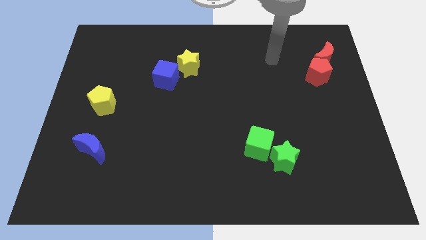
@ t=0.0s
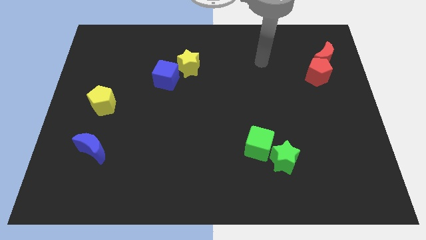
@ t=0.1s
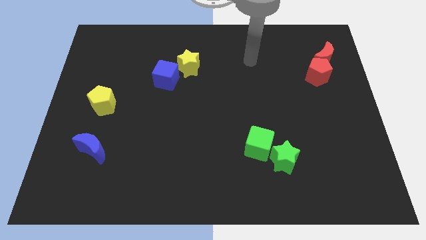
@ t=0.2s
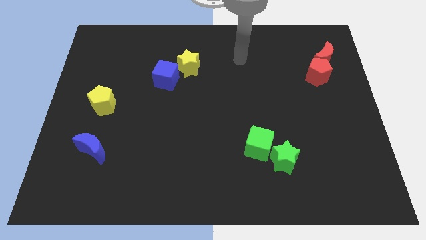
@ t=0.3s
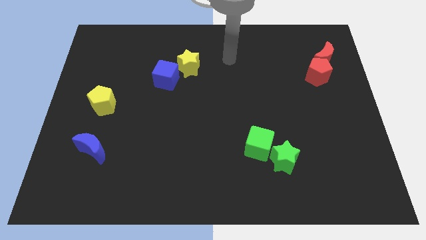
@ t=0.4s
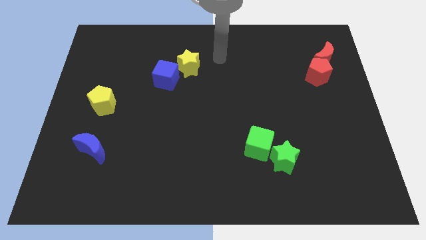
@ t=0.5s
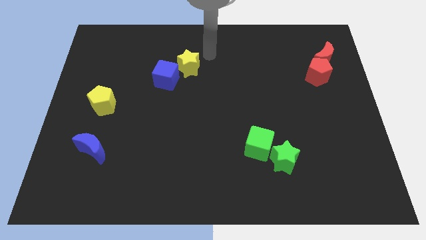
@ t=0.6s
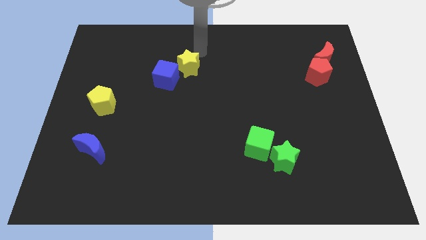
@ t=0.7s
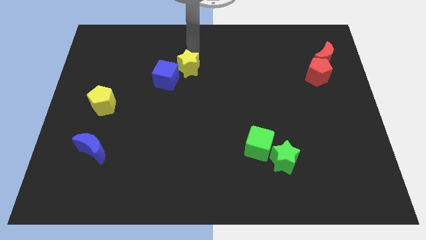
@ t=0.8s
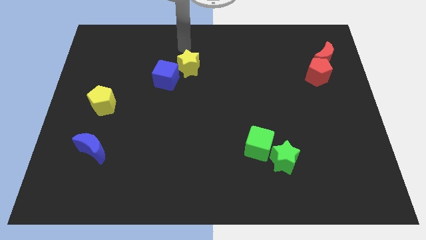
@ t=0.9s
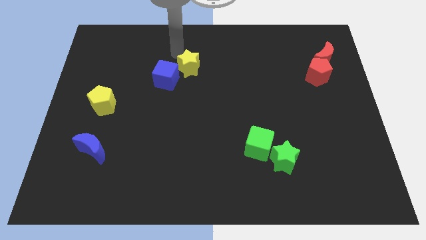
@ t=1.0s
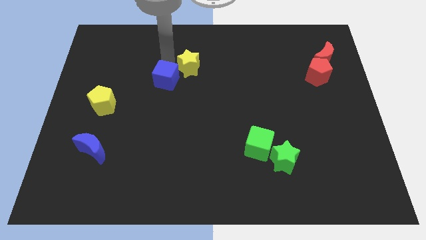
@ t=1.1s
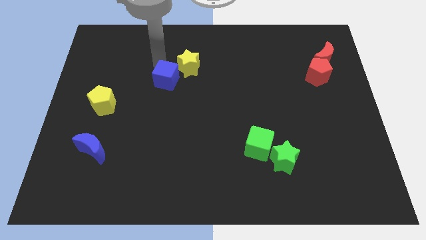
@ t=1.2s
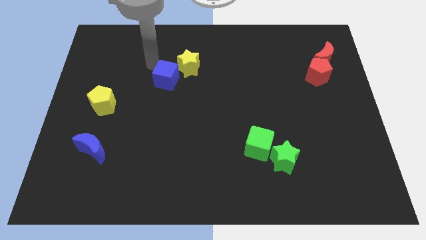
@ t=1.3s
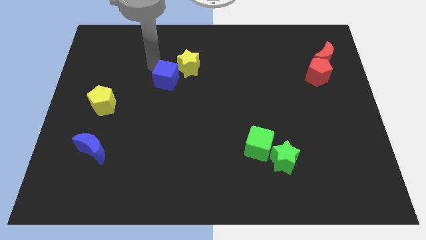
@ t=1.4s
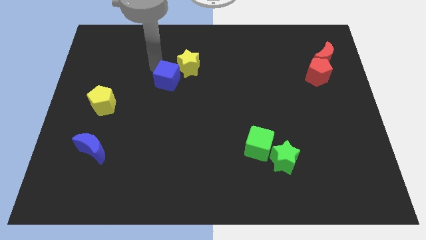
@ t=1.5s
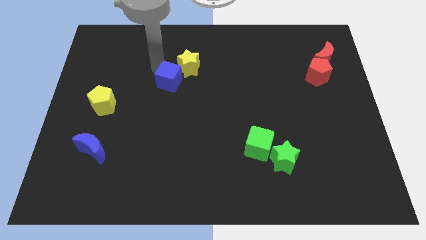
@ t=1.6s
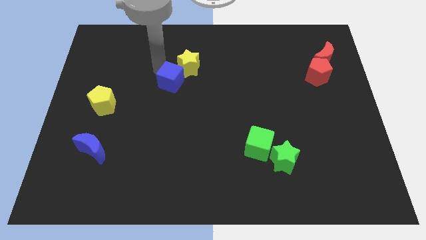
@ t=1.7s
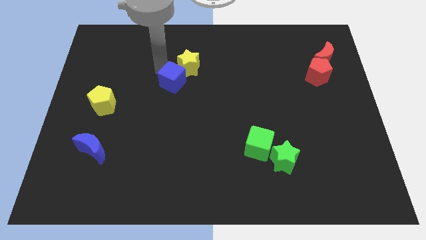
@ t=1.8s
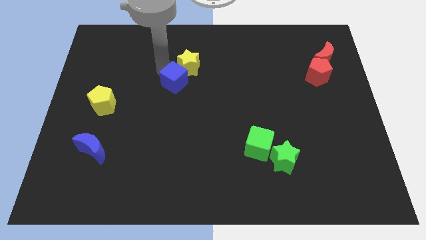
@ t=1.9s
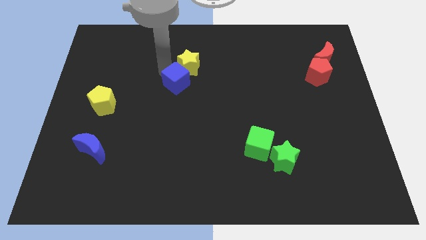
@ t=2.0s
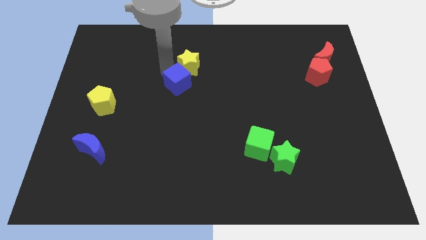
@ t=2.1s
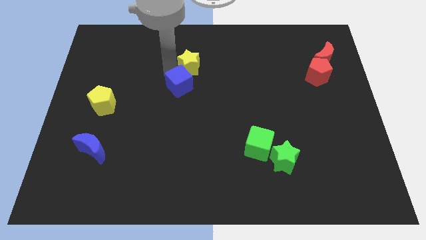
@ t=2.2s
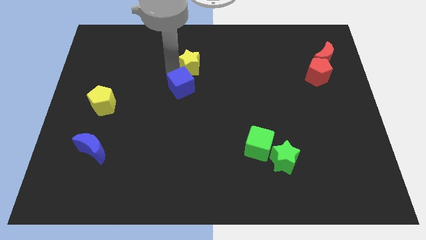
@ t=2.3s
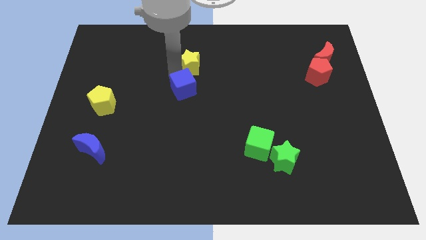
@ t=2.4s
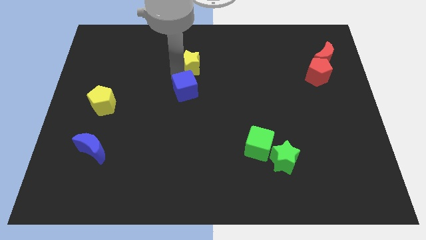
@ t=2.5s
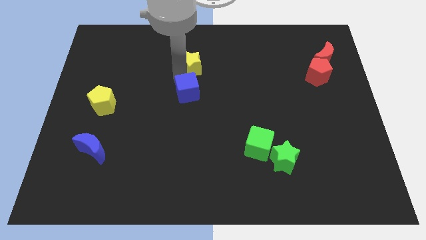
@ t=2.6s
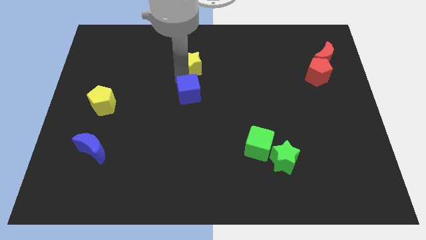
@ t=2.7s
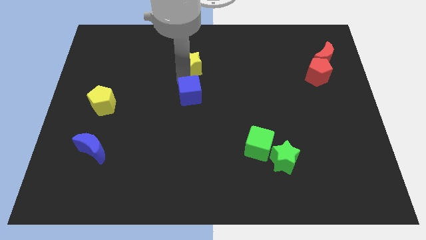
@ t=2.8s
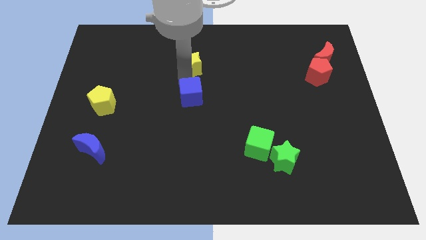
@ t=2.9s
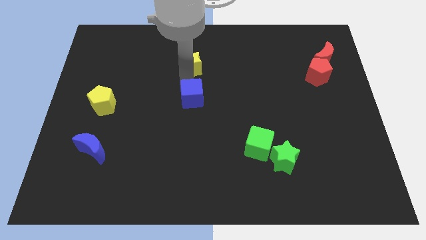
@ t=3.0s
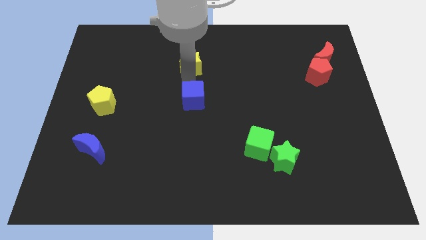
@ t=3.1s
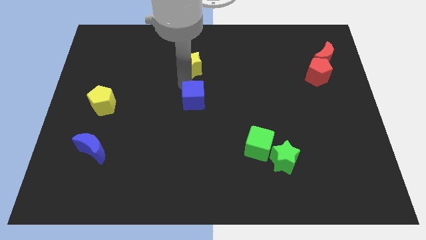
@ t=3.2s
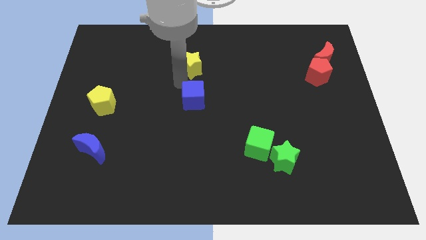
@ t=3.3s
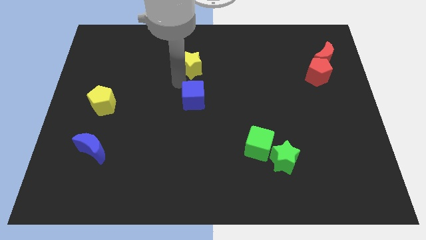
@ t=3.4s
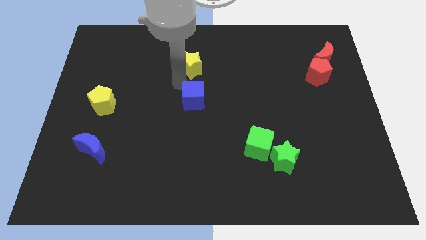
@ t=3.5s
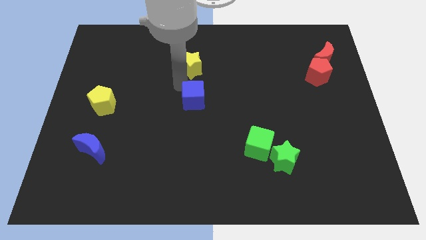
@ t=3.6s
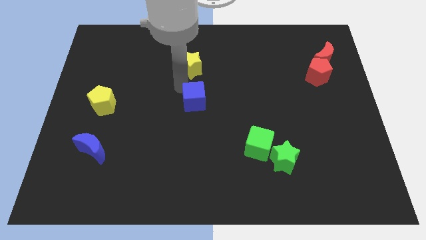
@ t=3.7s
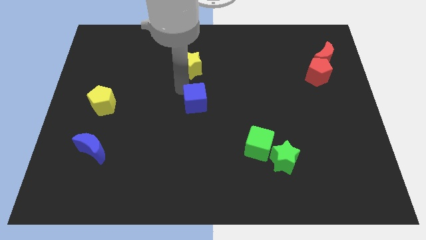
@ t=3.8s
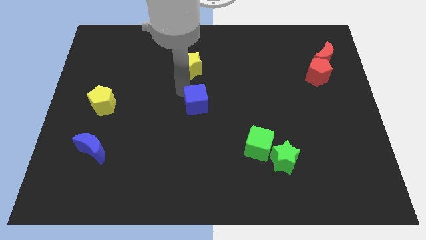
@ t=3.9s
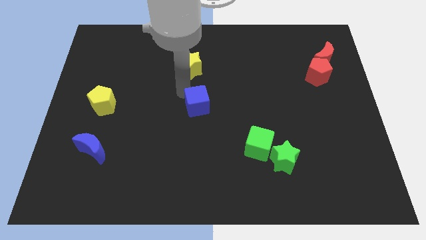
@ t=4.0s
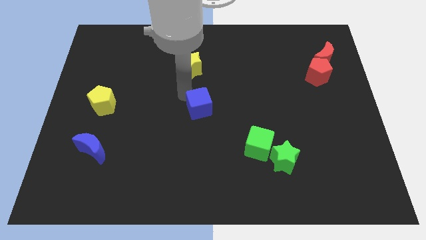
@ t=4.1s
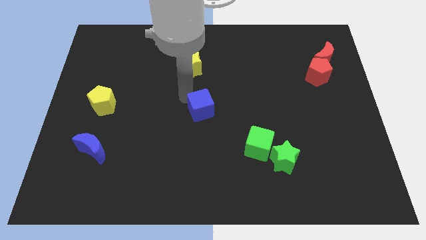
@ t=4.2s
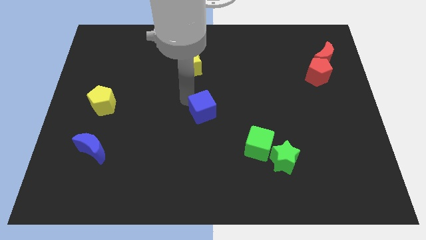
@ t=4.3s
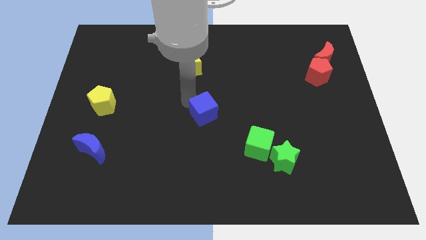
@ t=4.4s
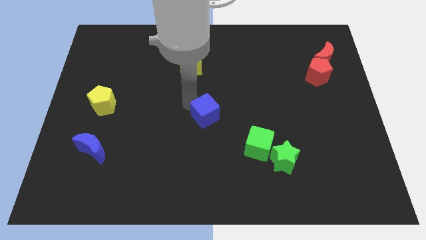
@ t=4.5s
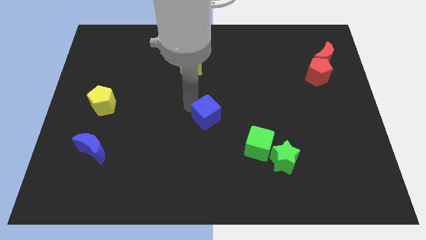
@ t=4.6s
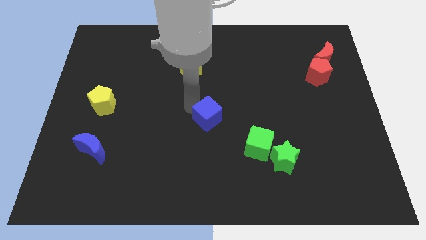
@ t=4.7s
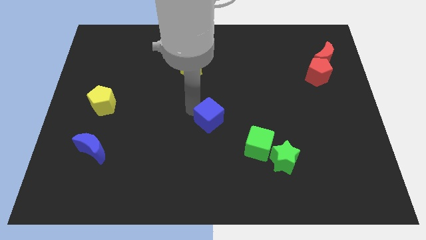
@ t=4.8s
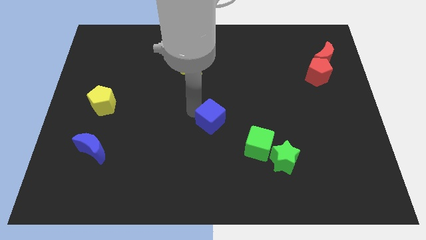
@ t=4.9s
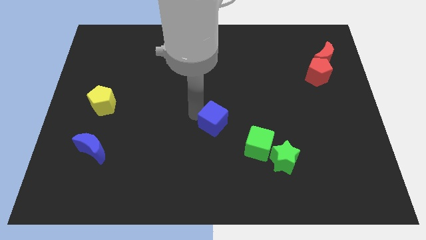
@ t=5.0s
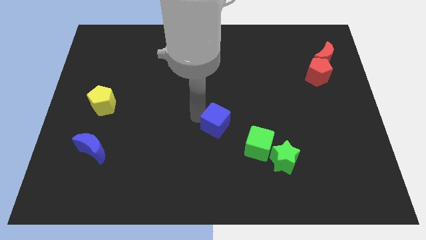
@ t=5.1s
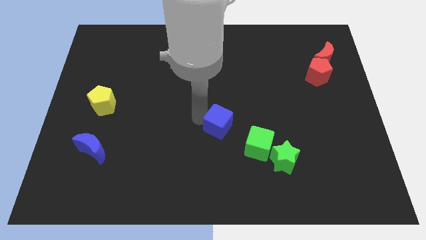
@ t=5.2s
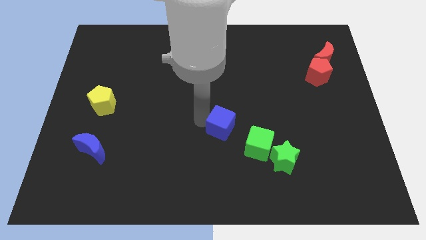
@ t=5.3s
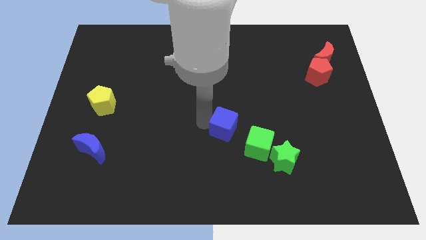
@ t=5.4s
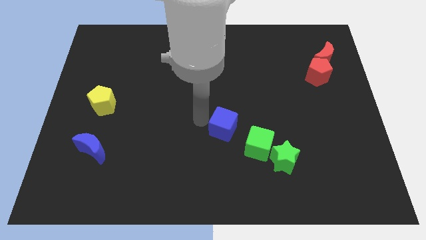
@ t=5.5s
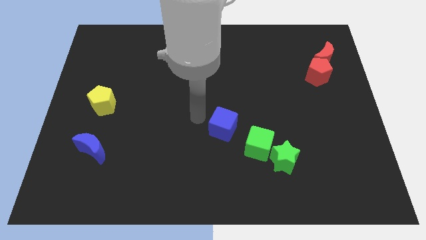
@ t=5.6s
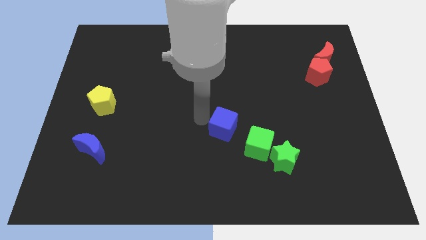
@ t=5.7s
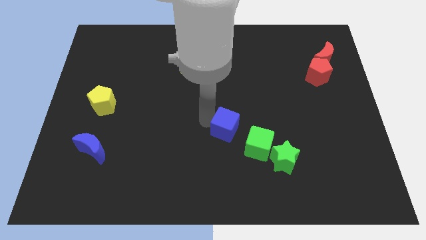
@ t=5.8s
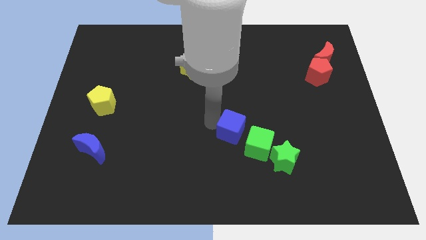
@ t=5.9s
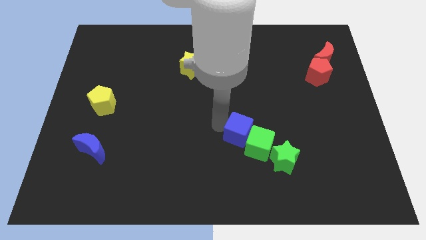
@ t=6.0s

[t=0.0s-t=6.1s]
put the blue cube towards the green cube

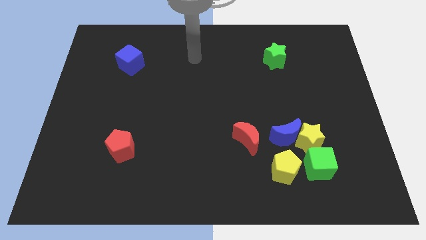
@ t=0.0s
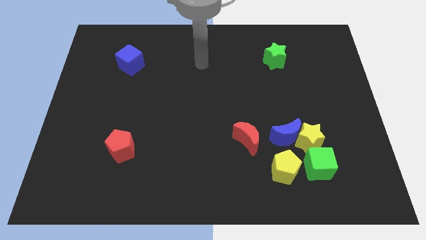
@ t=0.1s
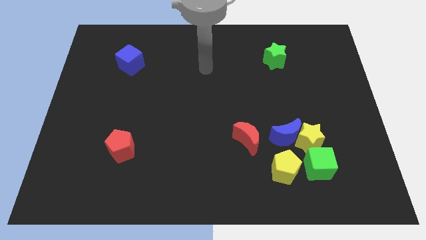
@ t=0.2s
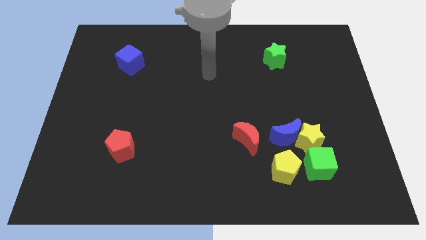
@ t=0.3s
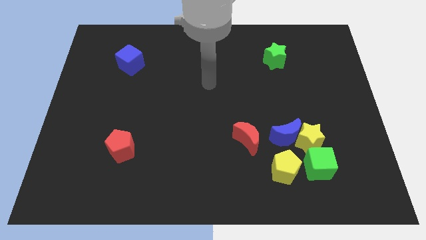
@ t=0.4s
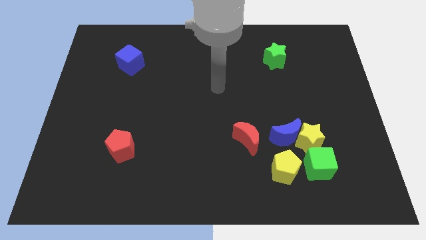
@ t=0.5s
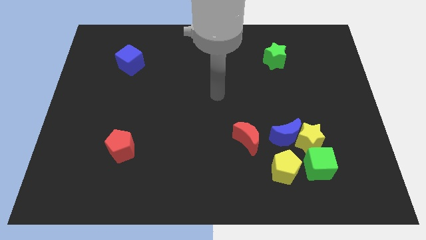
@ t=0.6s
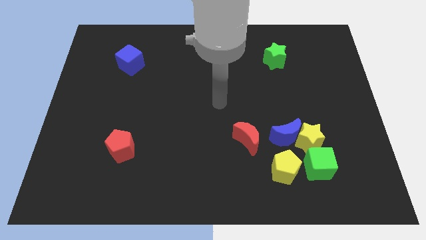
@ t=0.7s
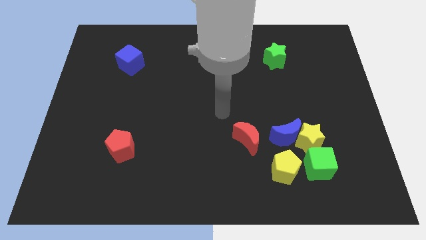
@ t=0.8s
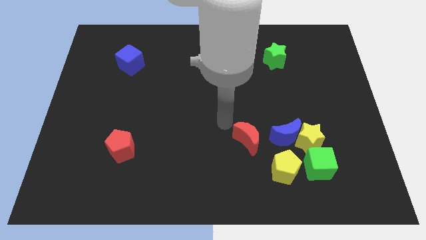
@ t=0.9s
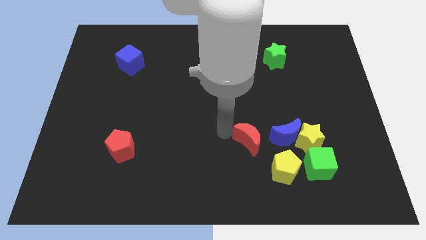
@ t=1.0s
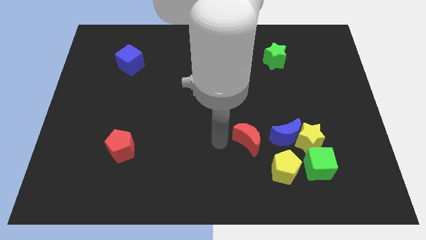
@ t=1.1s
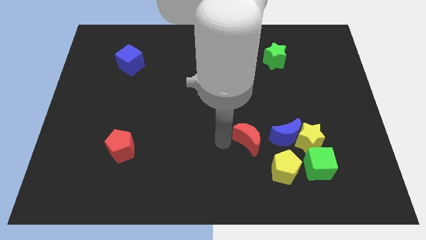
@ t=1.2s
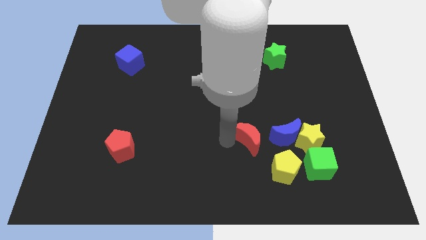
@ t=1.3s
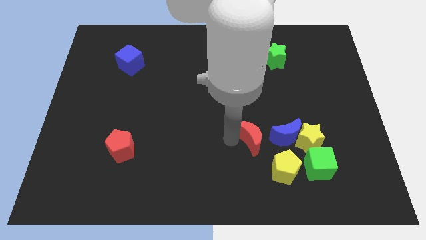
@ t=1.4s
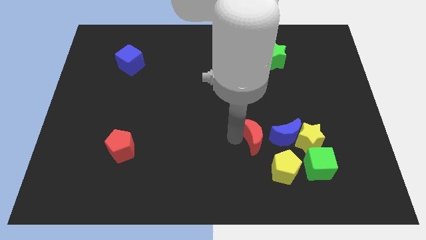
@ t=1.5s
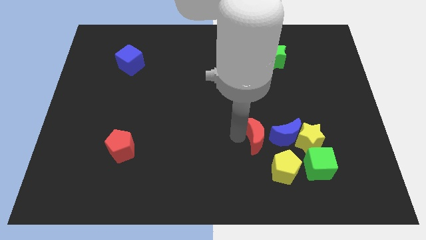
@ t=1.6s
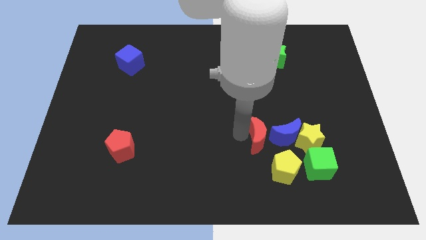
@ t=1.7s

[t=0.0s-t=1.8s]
push the red moon close to the blue moon
